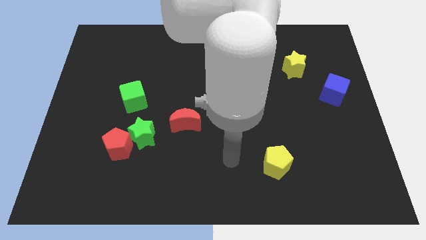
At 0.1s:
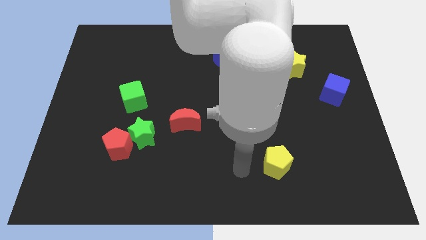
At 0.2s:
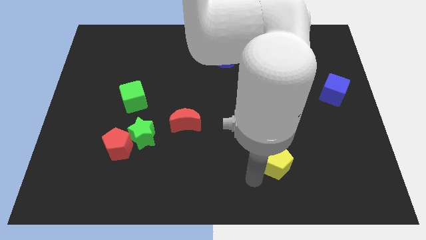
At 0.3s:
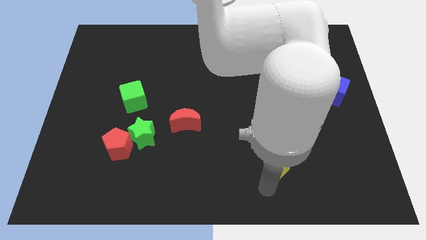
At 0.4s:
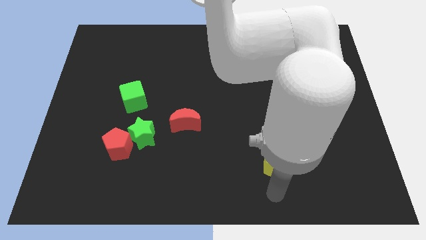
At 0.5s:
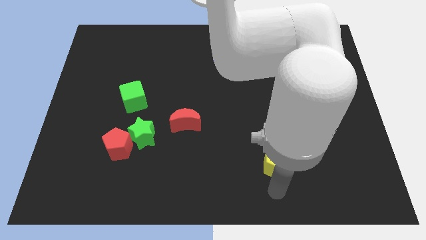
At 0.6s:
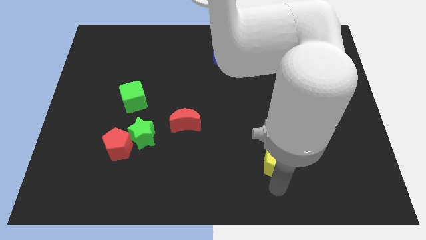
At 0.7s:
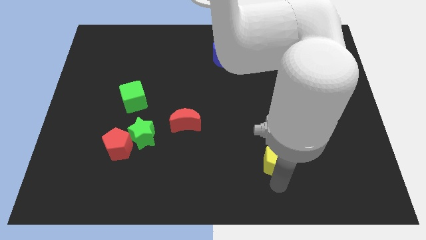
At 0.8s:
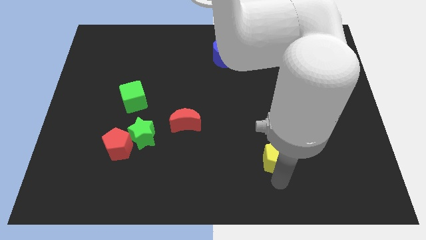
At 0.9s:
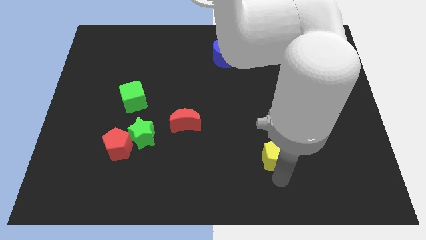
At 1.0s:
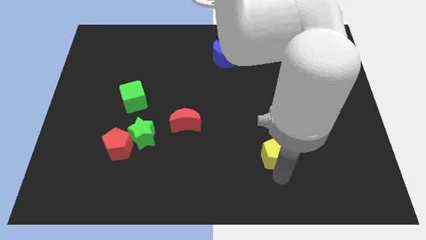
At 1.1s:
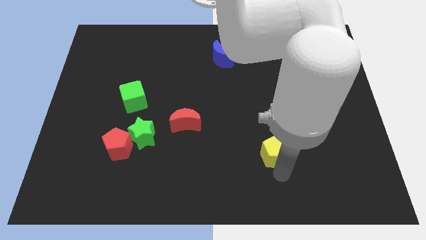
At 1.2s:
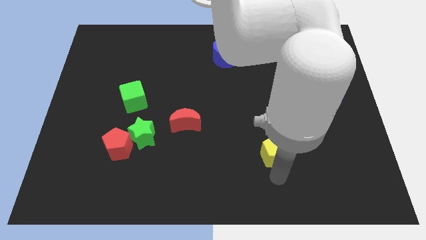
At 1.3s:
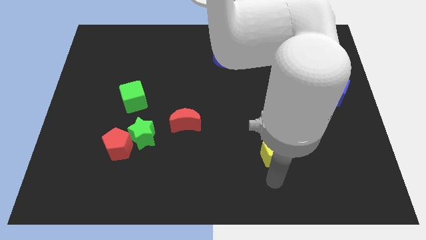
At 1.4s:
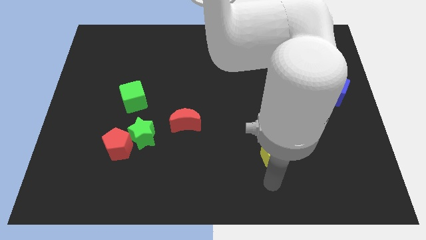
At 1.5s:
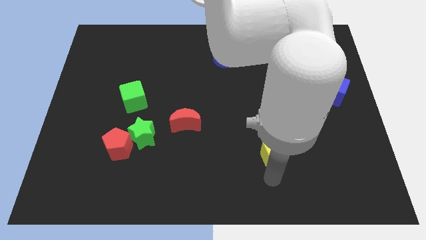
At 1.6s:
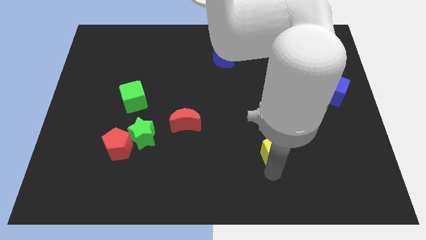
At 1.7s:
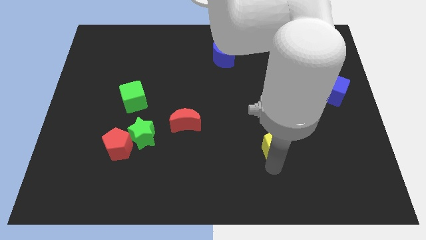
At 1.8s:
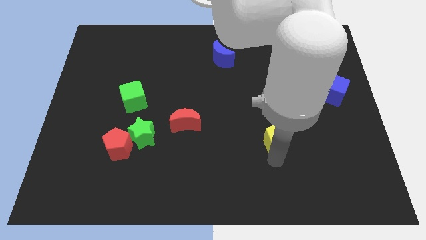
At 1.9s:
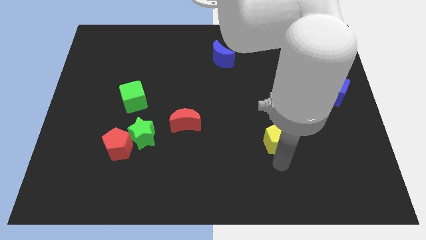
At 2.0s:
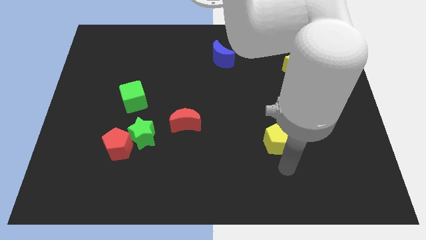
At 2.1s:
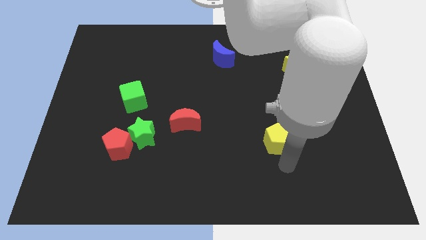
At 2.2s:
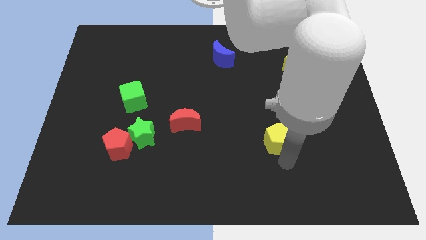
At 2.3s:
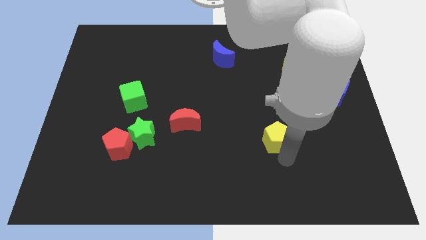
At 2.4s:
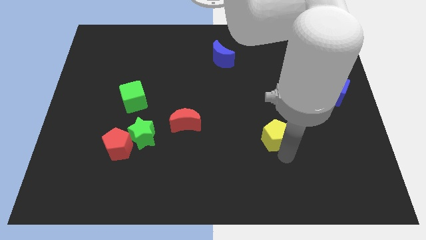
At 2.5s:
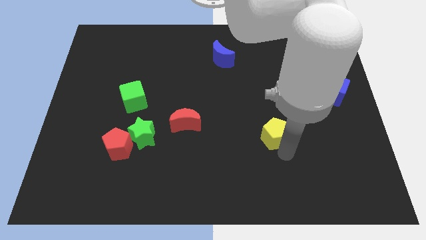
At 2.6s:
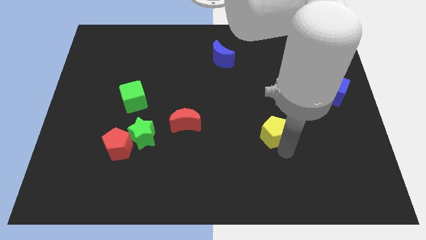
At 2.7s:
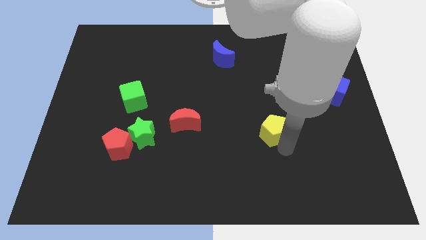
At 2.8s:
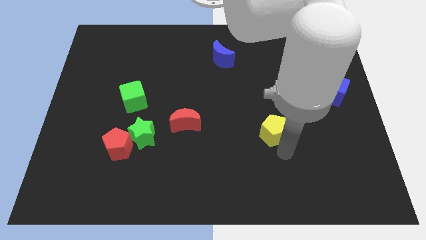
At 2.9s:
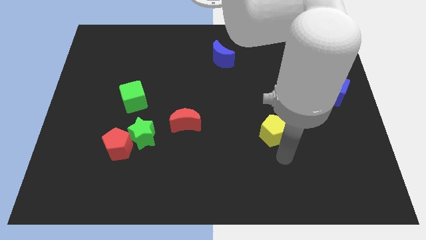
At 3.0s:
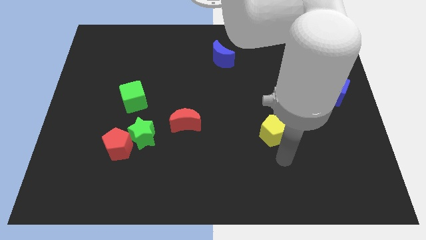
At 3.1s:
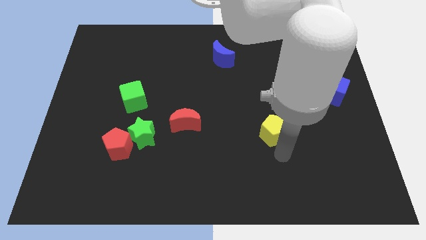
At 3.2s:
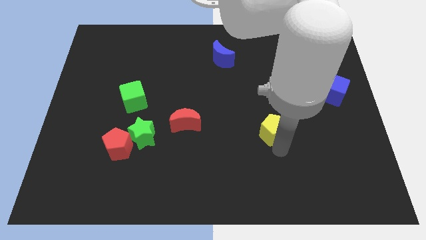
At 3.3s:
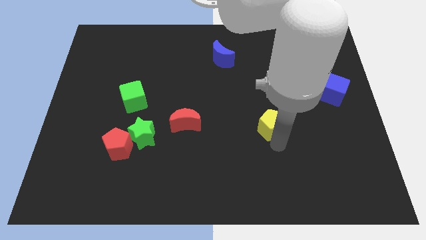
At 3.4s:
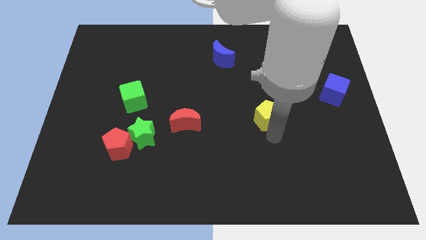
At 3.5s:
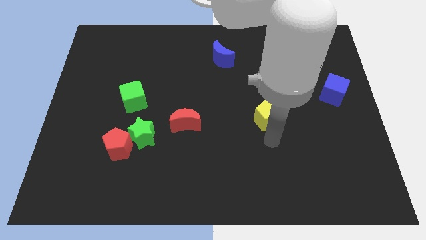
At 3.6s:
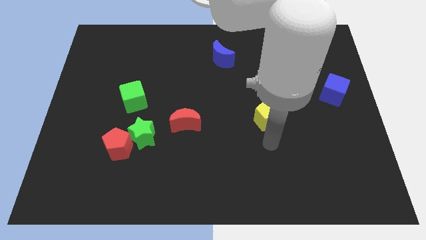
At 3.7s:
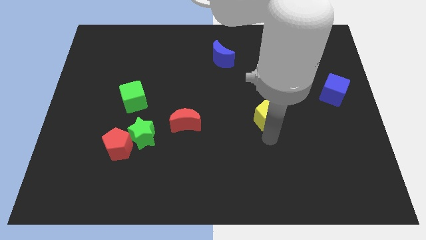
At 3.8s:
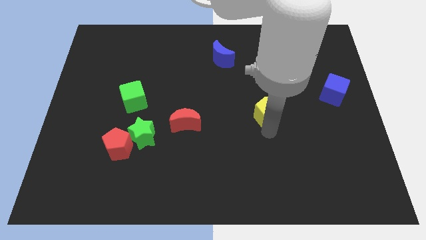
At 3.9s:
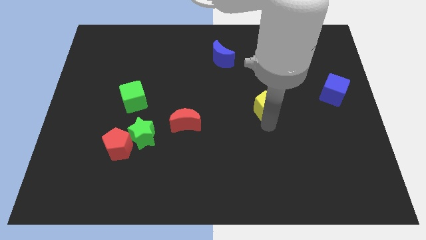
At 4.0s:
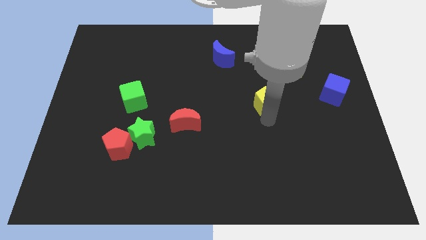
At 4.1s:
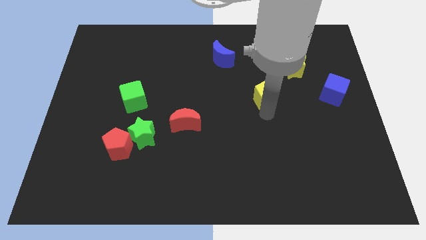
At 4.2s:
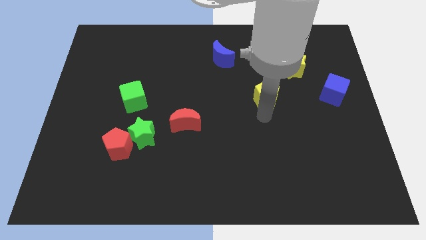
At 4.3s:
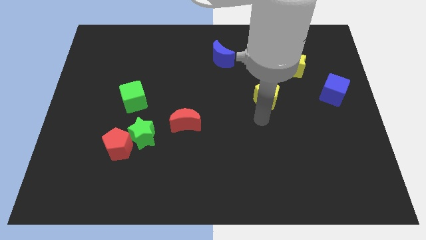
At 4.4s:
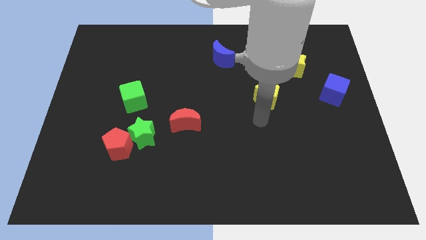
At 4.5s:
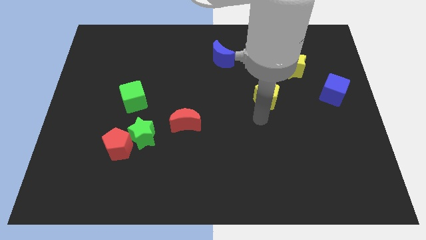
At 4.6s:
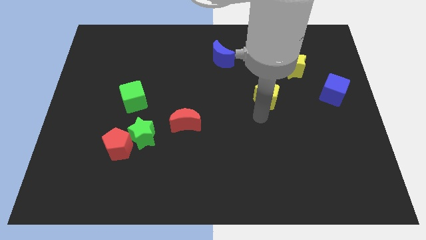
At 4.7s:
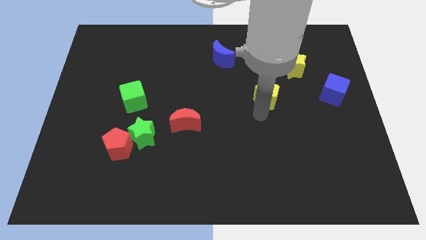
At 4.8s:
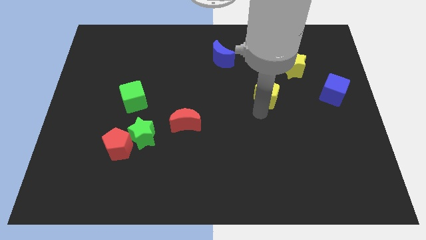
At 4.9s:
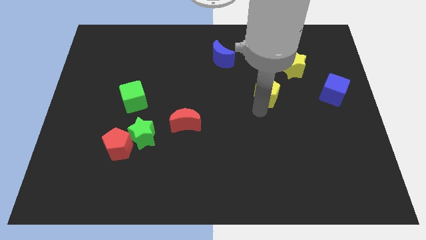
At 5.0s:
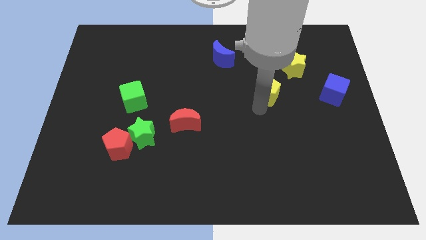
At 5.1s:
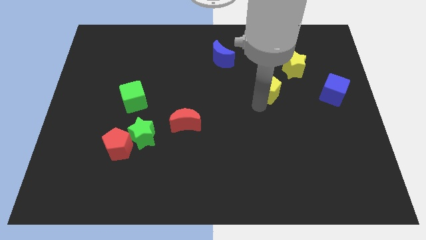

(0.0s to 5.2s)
push the yellow pentagon up

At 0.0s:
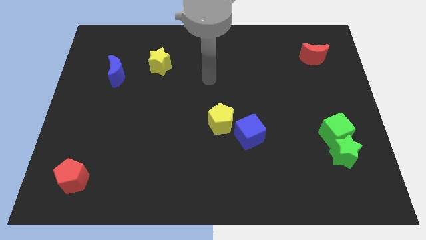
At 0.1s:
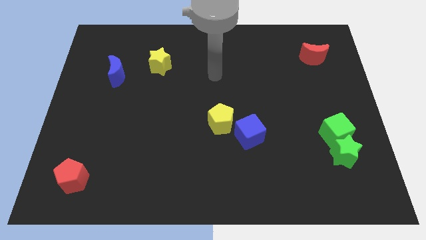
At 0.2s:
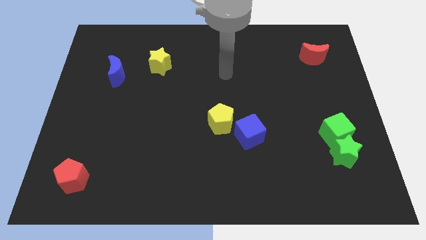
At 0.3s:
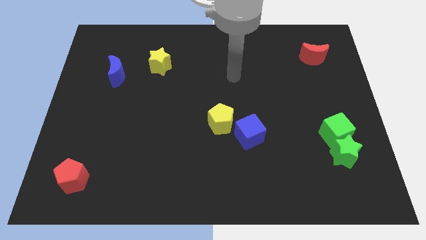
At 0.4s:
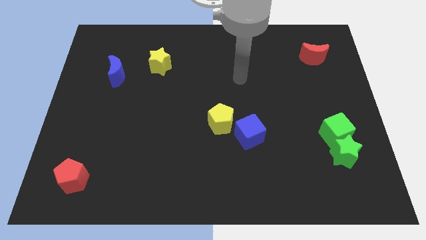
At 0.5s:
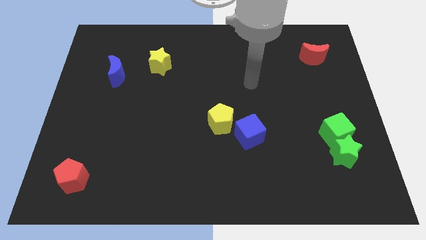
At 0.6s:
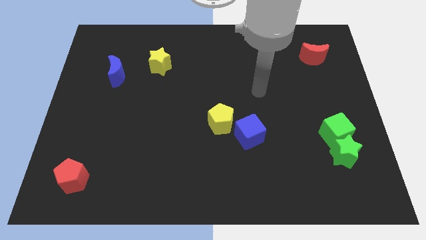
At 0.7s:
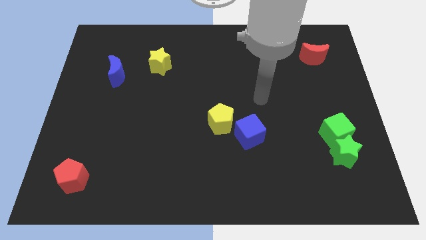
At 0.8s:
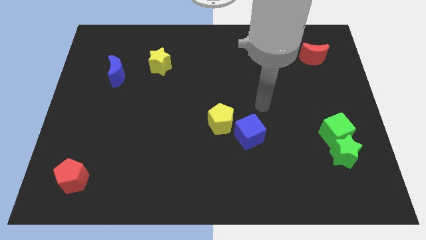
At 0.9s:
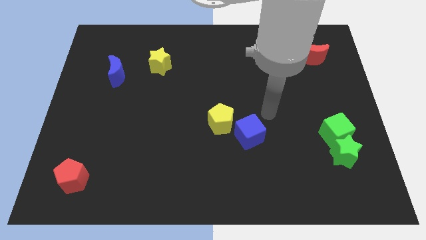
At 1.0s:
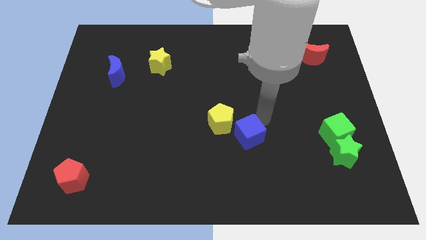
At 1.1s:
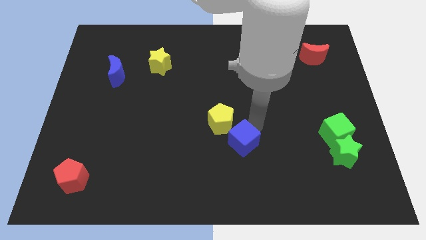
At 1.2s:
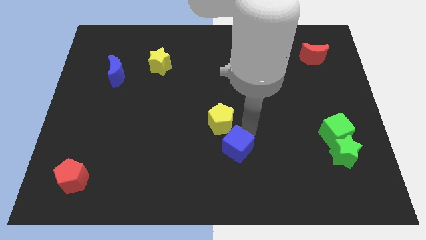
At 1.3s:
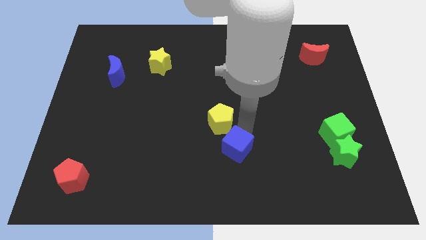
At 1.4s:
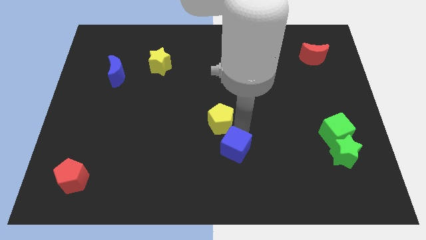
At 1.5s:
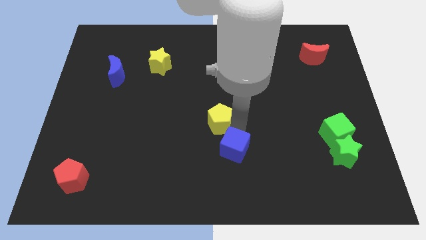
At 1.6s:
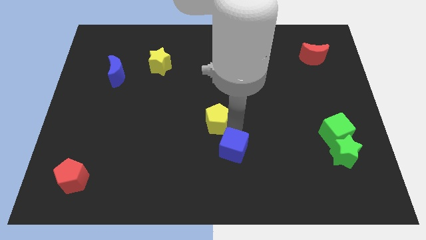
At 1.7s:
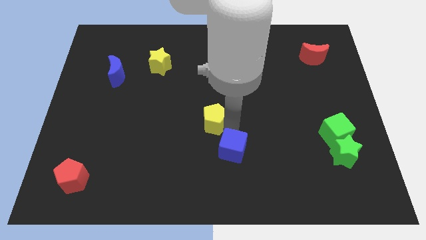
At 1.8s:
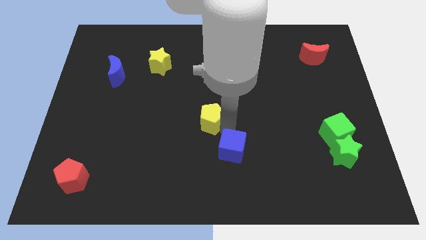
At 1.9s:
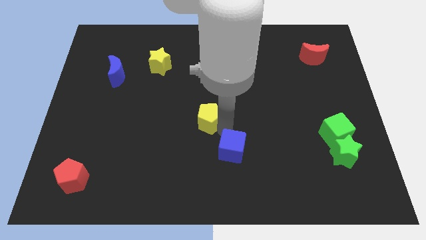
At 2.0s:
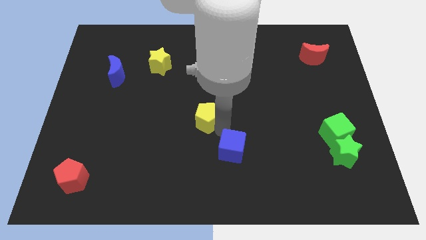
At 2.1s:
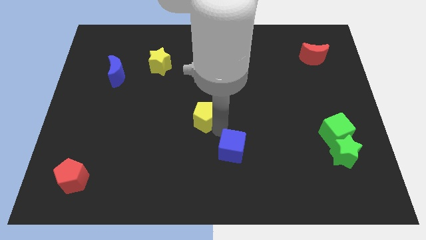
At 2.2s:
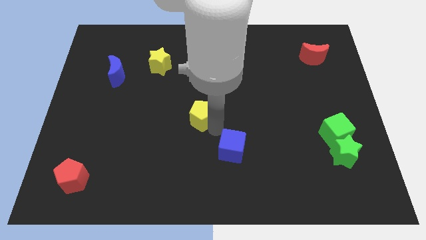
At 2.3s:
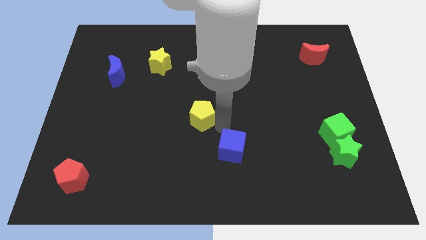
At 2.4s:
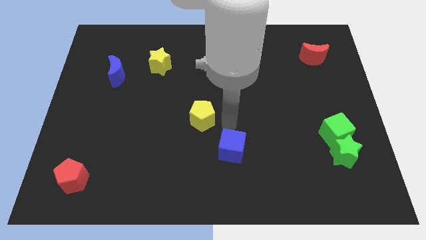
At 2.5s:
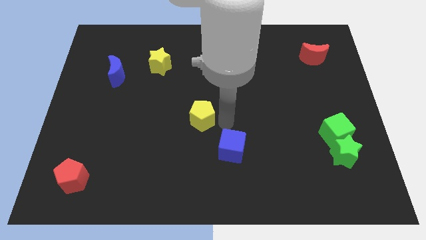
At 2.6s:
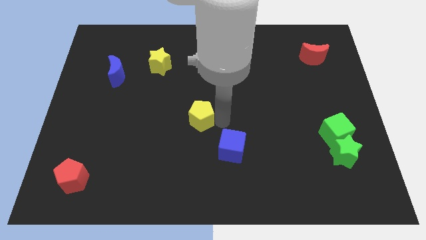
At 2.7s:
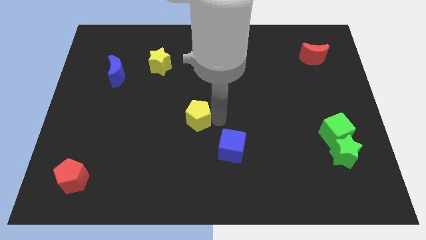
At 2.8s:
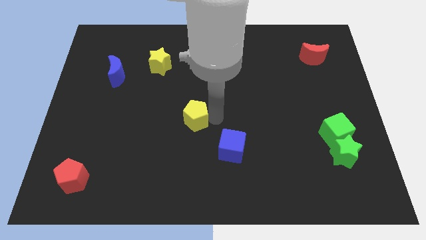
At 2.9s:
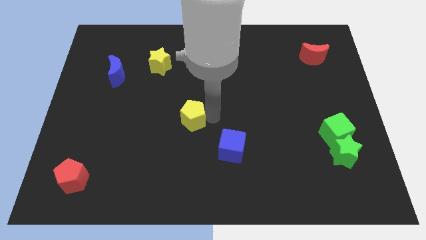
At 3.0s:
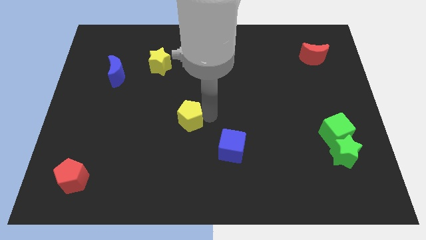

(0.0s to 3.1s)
slightly move the yellow pentagon left
